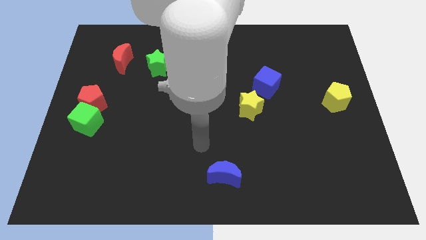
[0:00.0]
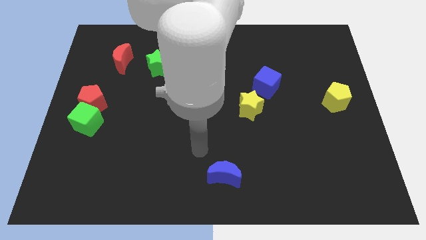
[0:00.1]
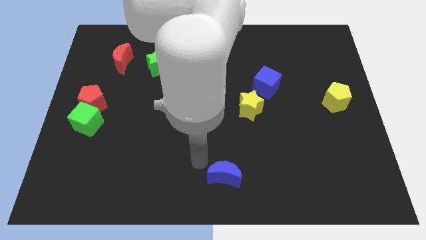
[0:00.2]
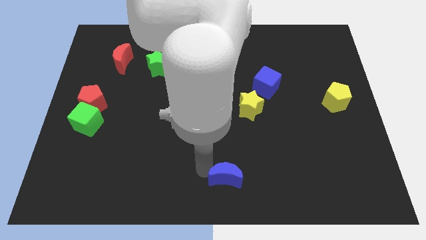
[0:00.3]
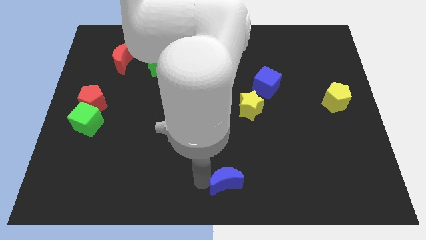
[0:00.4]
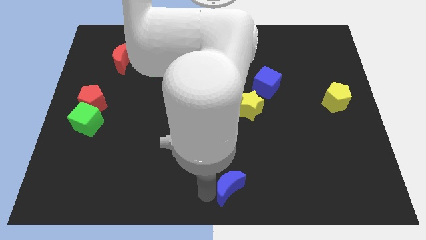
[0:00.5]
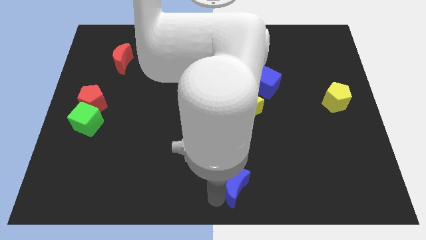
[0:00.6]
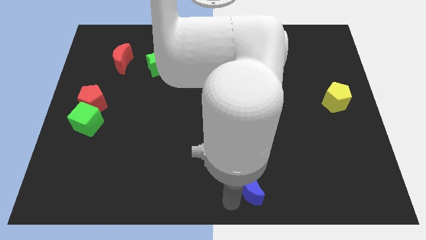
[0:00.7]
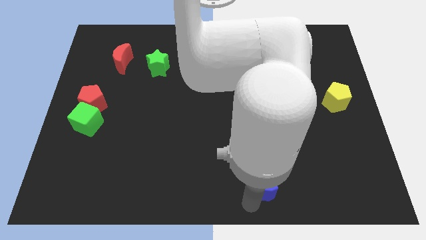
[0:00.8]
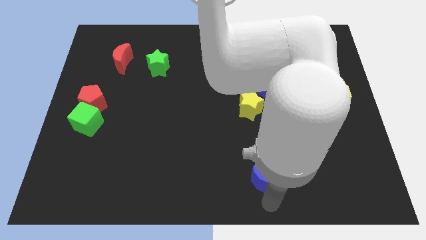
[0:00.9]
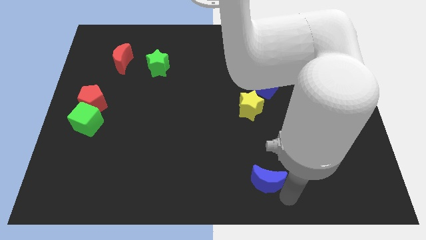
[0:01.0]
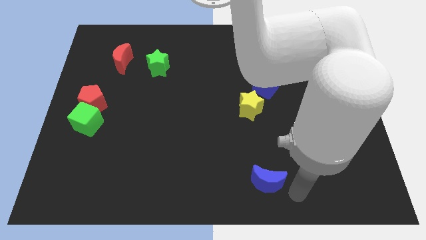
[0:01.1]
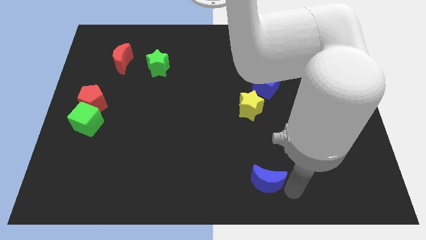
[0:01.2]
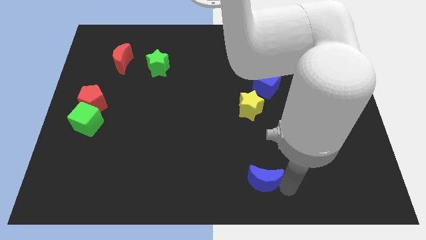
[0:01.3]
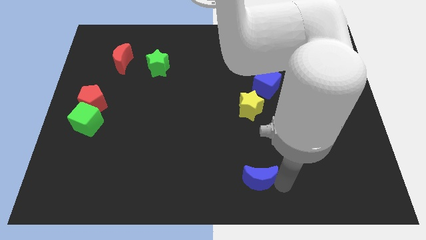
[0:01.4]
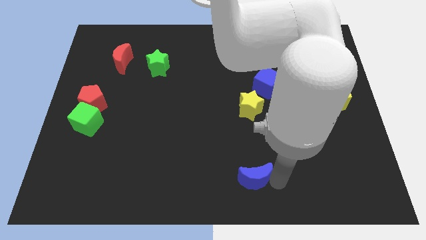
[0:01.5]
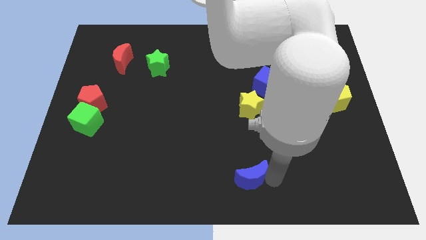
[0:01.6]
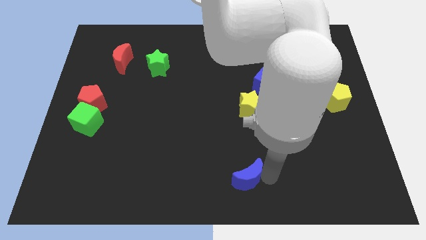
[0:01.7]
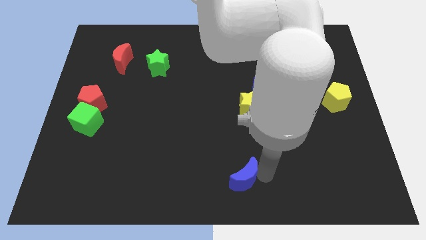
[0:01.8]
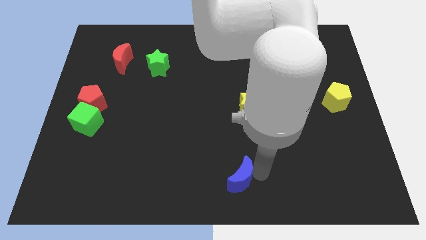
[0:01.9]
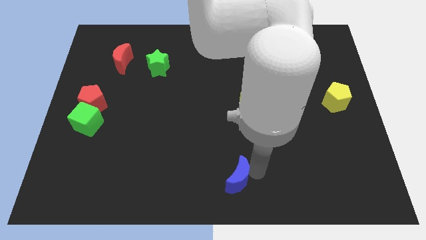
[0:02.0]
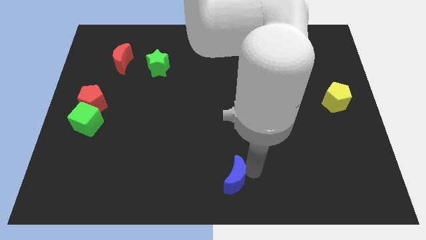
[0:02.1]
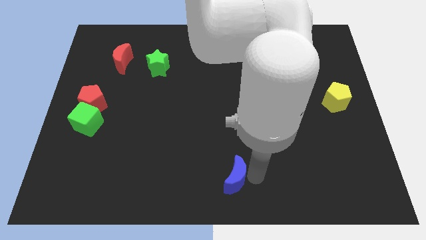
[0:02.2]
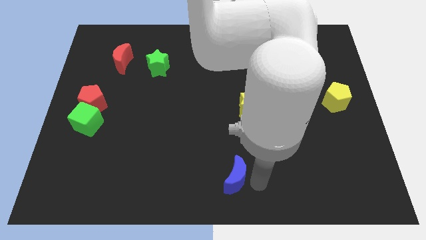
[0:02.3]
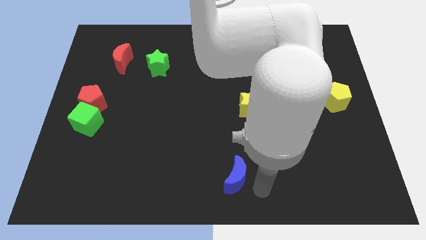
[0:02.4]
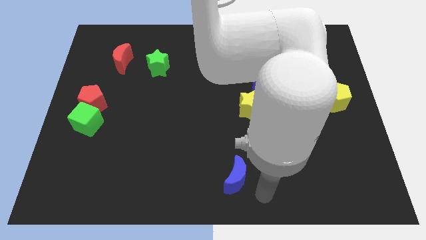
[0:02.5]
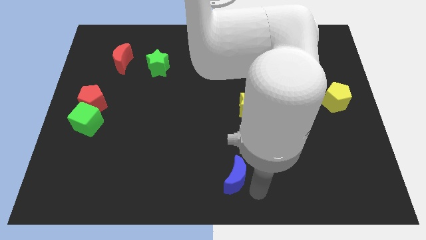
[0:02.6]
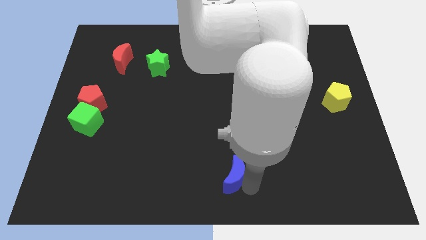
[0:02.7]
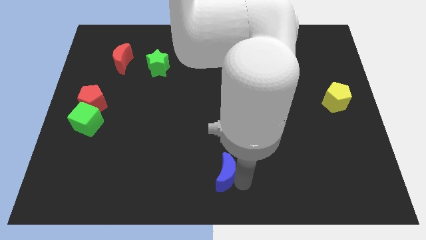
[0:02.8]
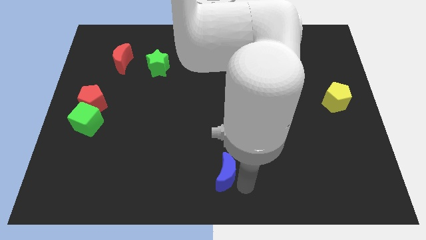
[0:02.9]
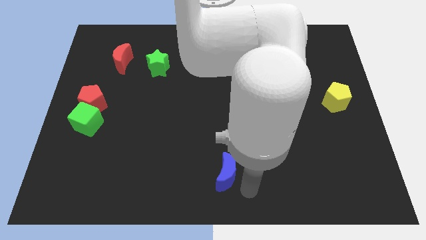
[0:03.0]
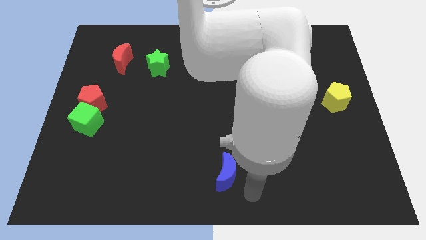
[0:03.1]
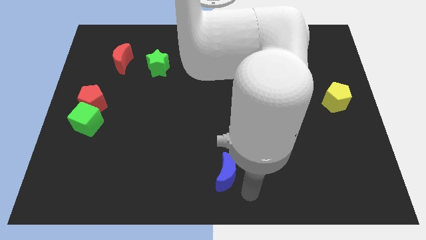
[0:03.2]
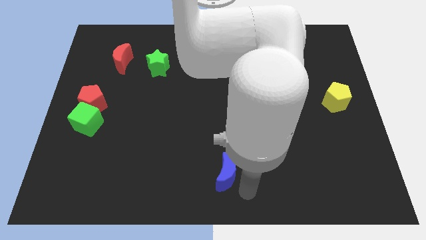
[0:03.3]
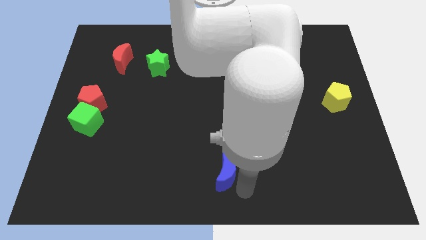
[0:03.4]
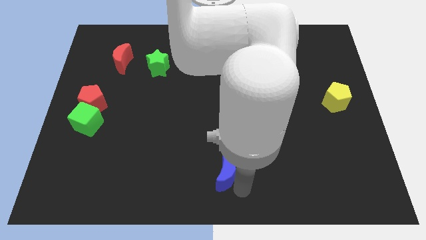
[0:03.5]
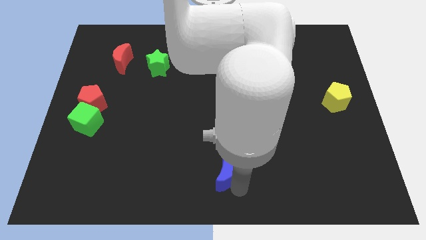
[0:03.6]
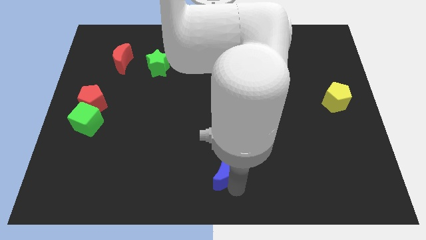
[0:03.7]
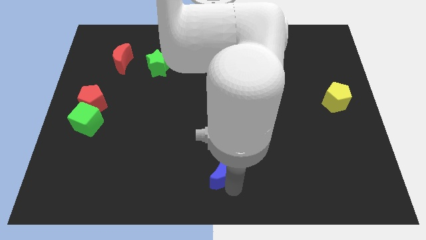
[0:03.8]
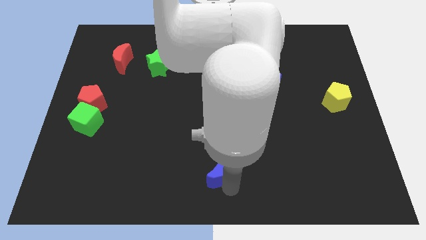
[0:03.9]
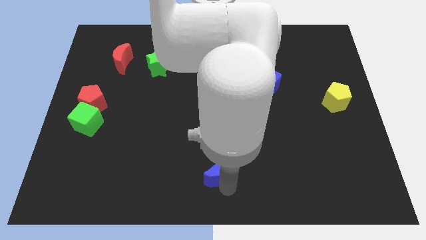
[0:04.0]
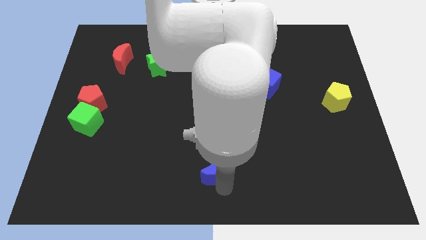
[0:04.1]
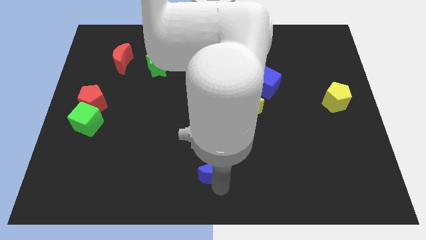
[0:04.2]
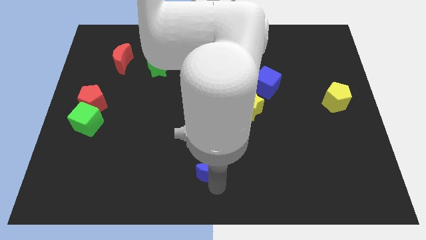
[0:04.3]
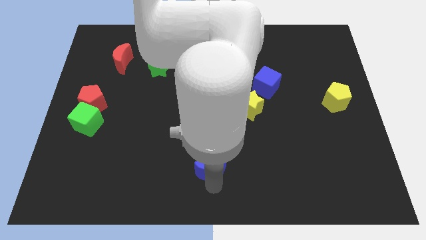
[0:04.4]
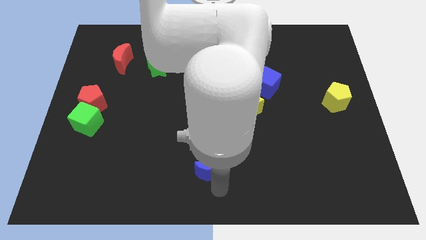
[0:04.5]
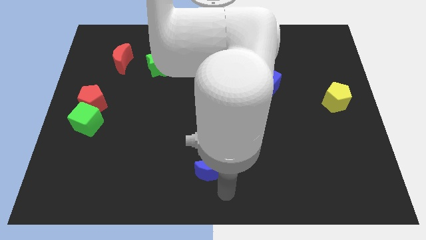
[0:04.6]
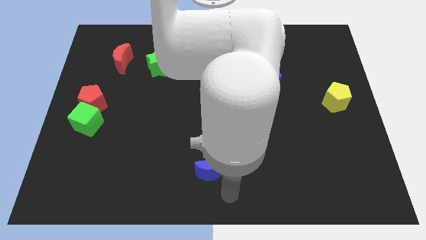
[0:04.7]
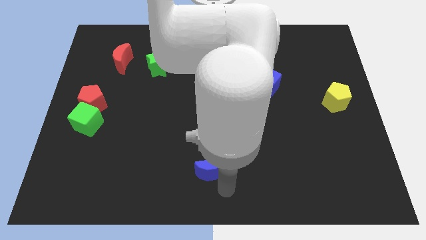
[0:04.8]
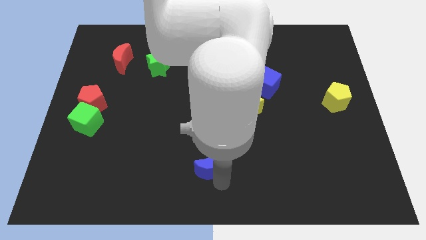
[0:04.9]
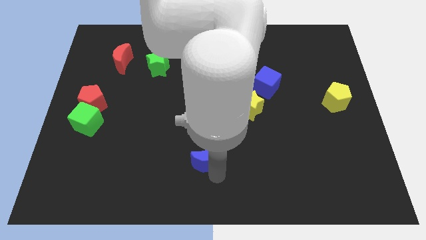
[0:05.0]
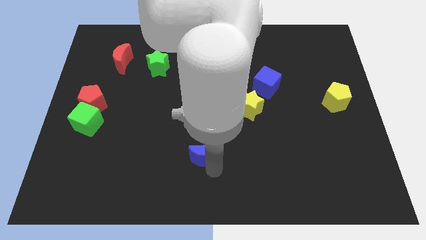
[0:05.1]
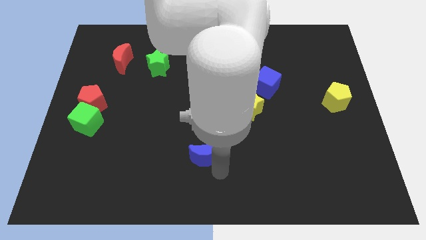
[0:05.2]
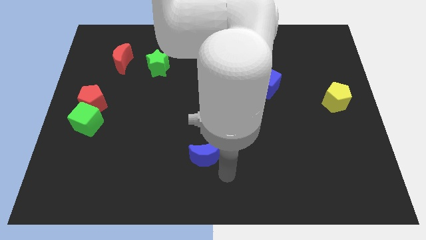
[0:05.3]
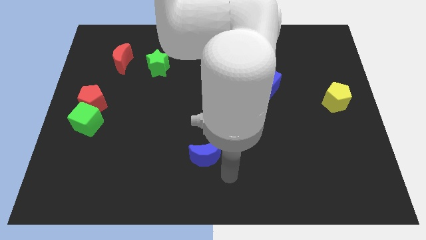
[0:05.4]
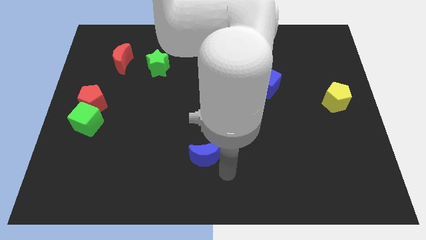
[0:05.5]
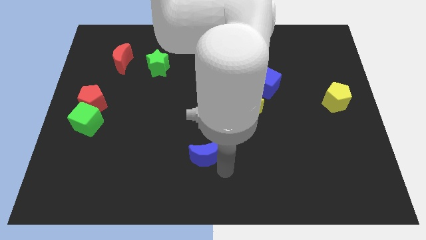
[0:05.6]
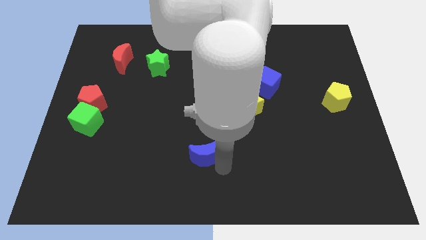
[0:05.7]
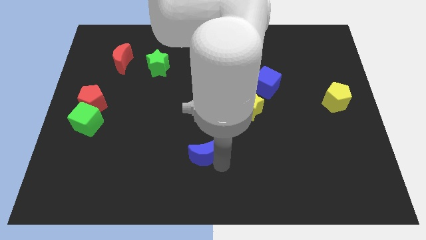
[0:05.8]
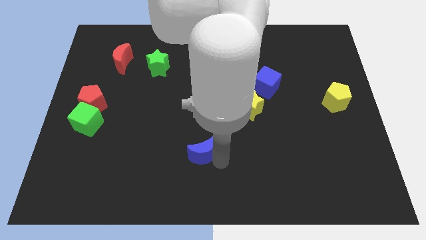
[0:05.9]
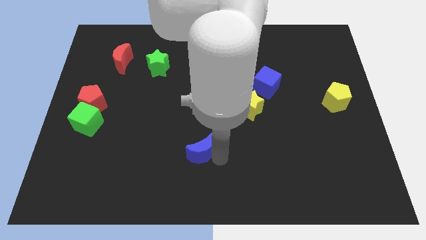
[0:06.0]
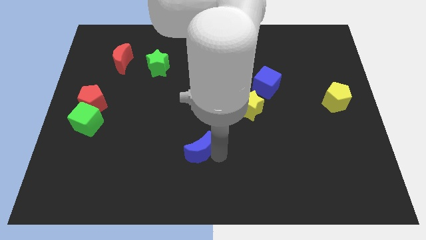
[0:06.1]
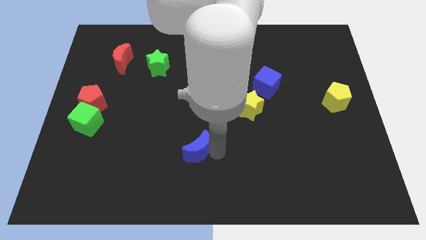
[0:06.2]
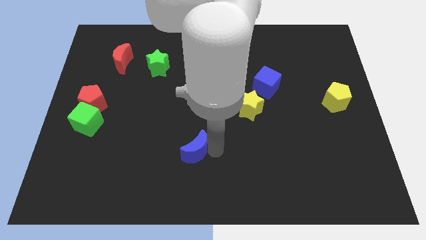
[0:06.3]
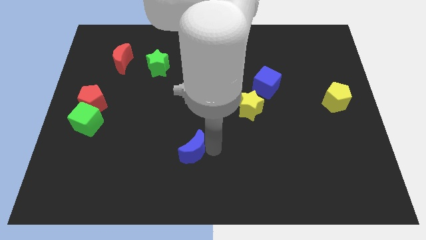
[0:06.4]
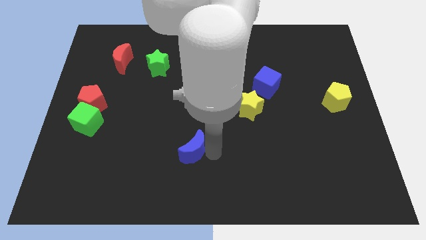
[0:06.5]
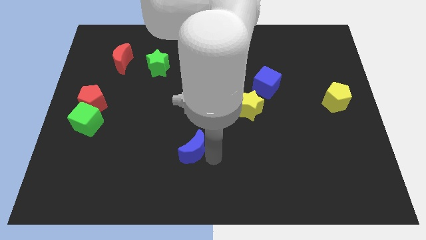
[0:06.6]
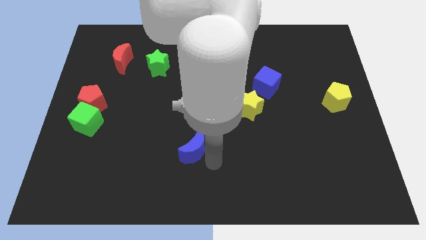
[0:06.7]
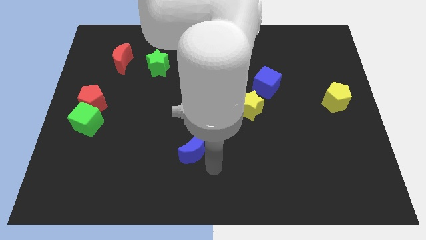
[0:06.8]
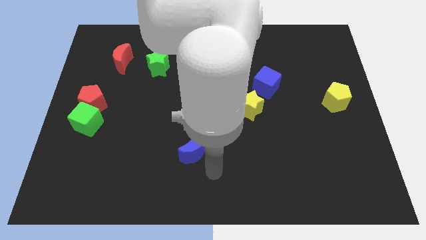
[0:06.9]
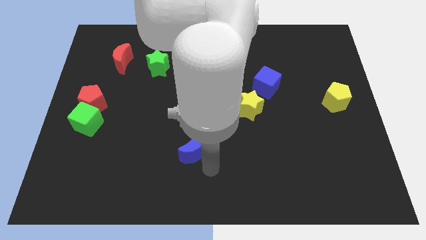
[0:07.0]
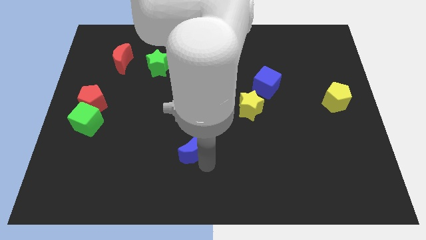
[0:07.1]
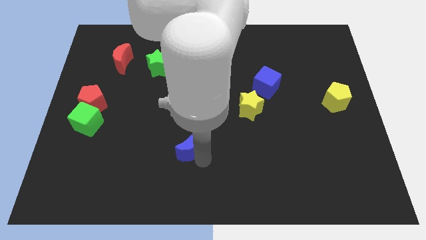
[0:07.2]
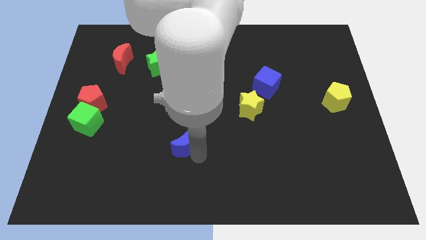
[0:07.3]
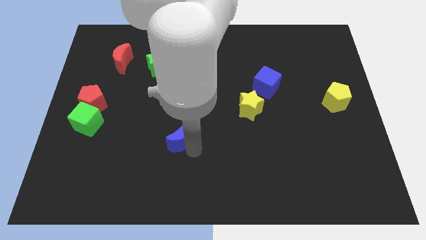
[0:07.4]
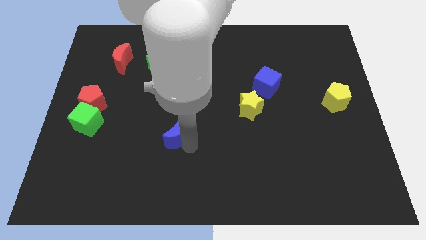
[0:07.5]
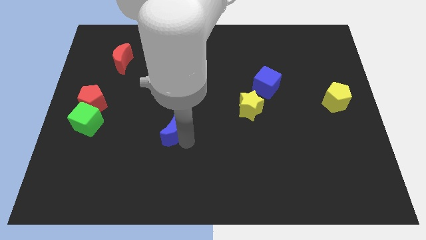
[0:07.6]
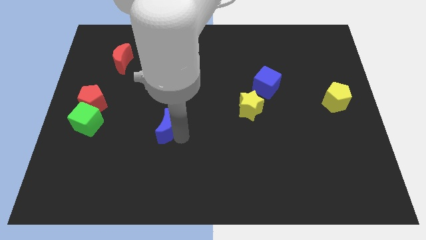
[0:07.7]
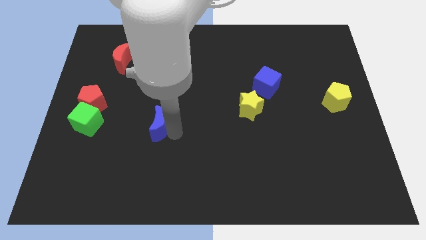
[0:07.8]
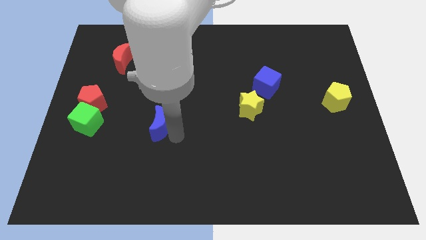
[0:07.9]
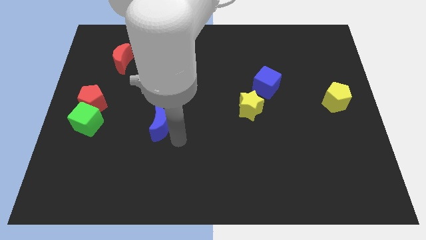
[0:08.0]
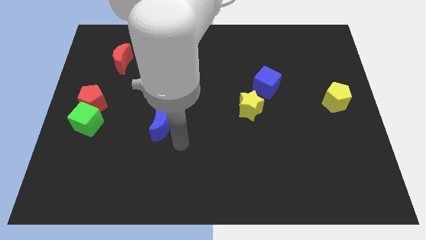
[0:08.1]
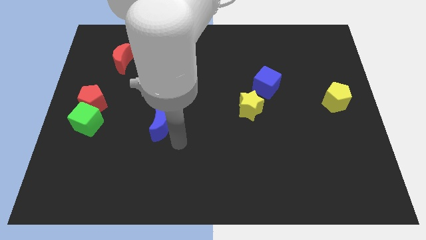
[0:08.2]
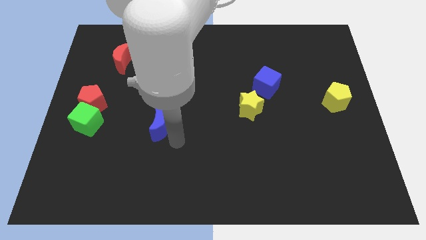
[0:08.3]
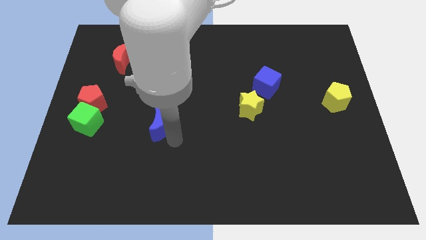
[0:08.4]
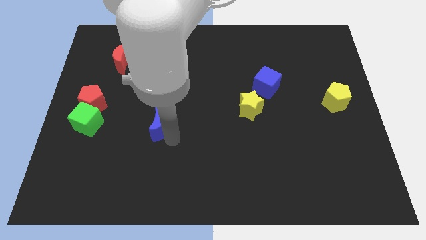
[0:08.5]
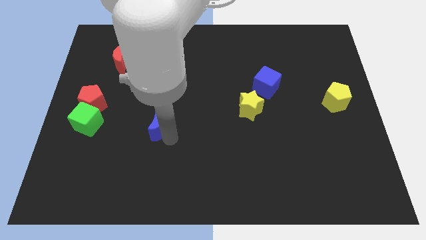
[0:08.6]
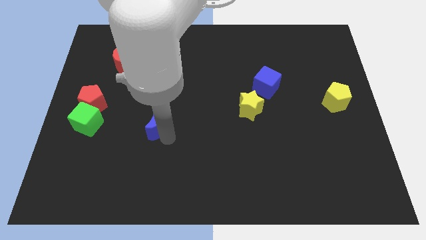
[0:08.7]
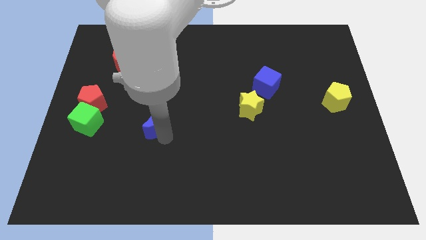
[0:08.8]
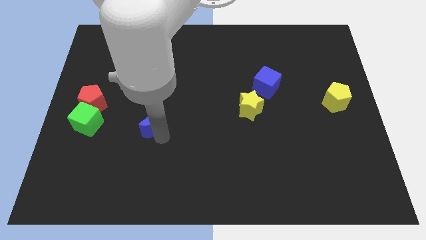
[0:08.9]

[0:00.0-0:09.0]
move the blue moon up and to the left
